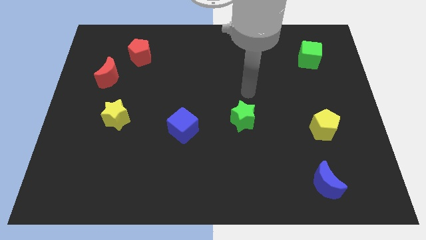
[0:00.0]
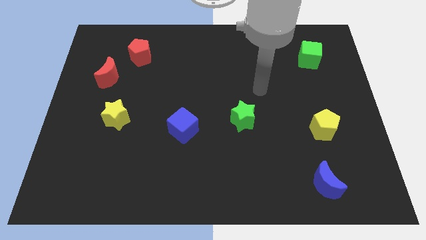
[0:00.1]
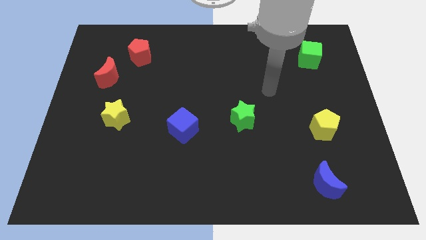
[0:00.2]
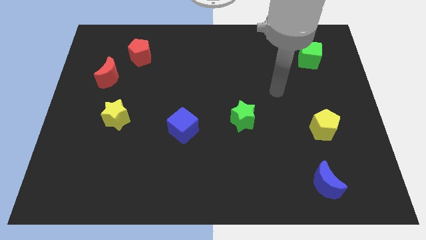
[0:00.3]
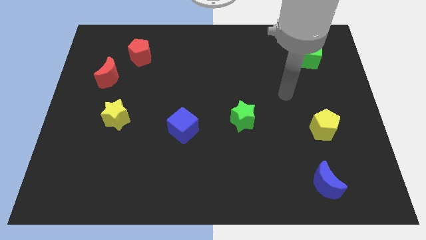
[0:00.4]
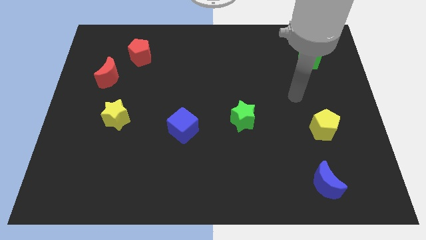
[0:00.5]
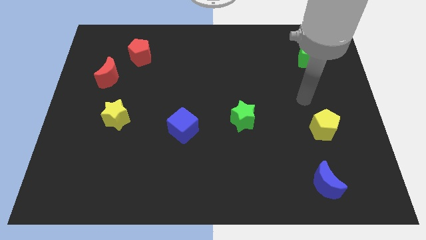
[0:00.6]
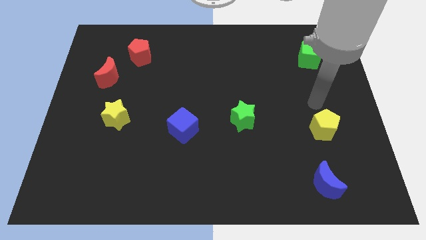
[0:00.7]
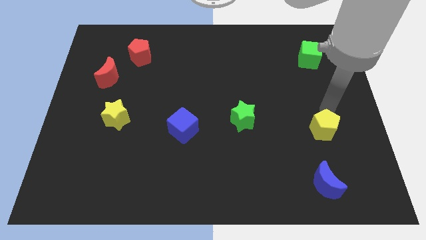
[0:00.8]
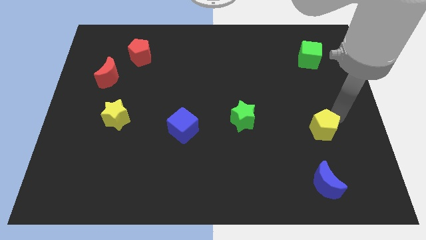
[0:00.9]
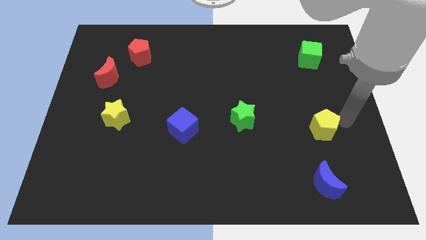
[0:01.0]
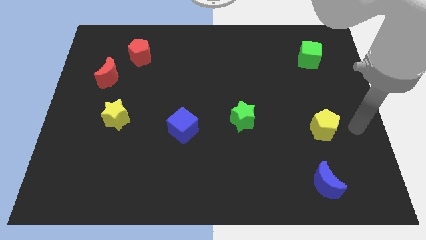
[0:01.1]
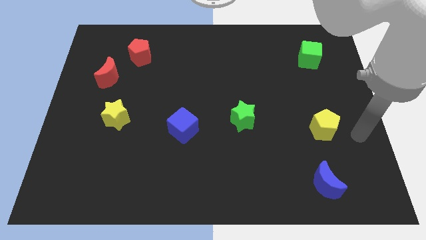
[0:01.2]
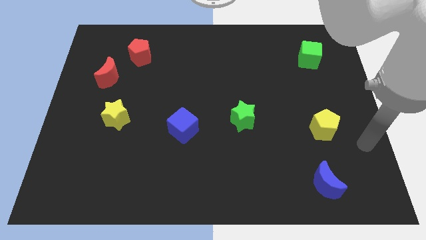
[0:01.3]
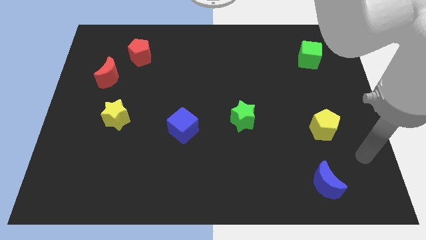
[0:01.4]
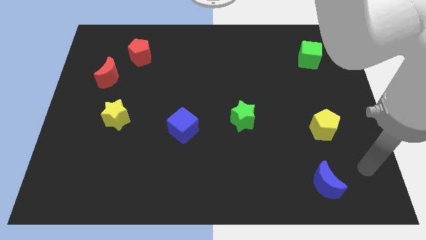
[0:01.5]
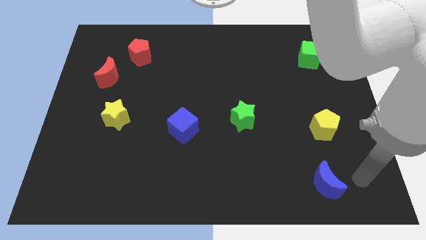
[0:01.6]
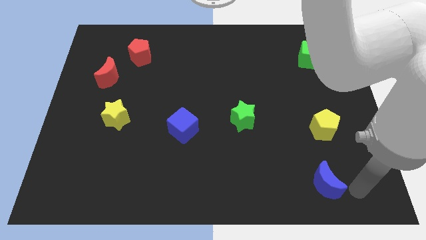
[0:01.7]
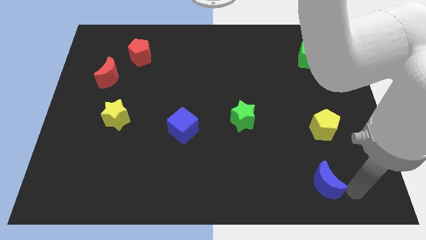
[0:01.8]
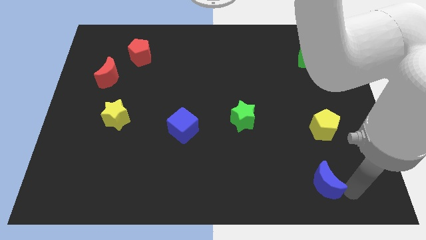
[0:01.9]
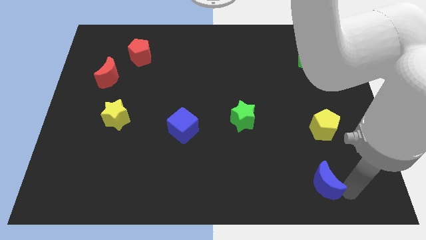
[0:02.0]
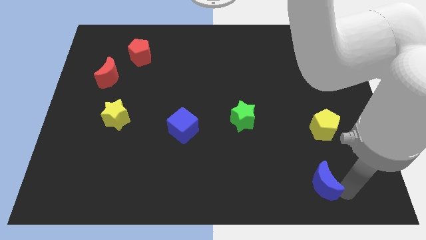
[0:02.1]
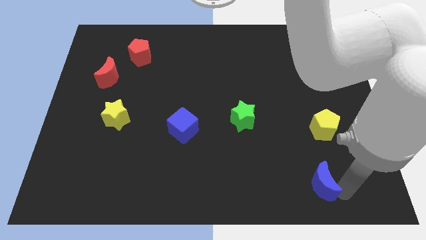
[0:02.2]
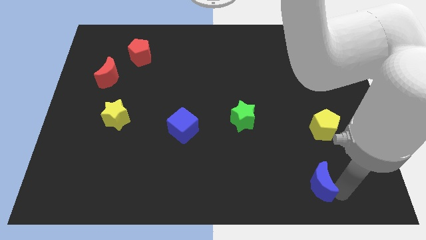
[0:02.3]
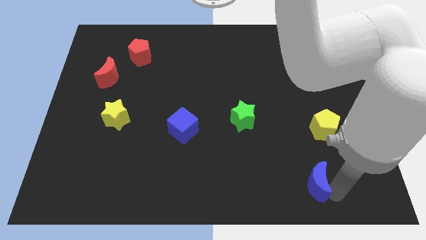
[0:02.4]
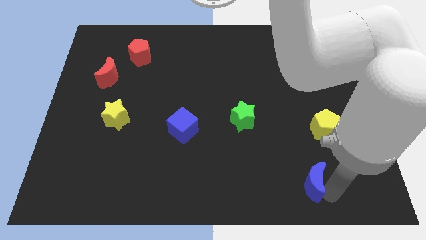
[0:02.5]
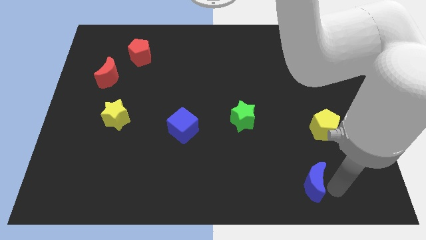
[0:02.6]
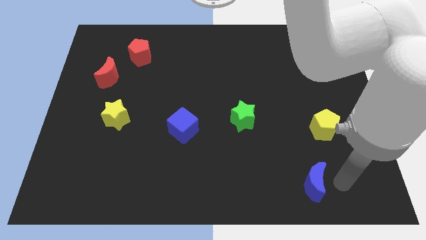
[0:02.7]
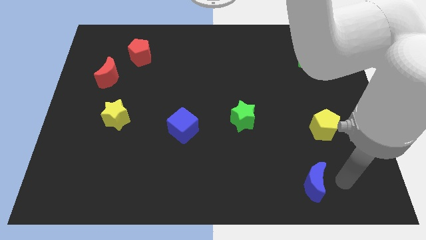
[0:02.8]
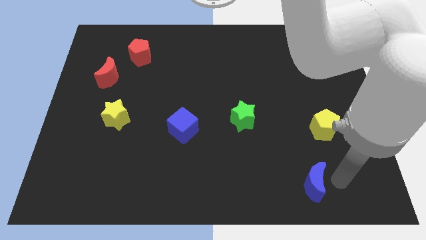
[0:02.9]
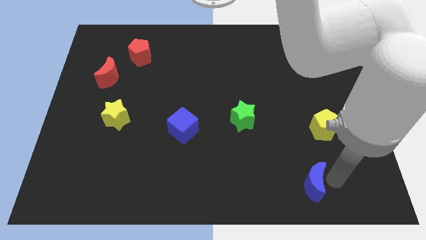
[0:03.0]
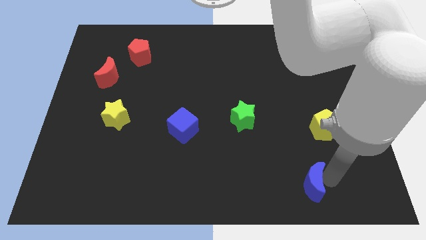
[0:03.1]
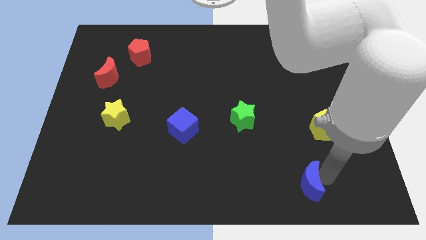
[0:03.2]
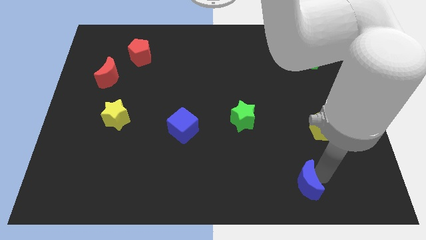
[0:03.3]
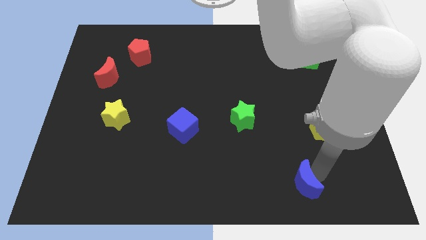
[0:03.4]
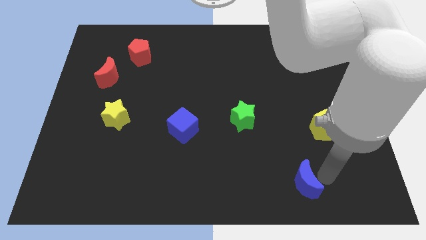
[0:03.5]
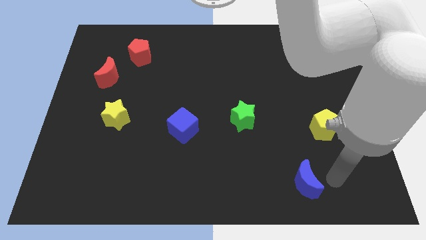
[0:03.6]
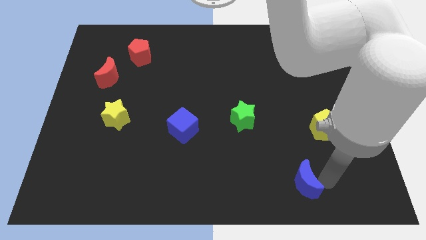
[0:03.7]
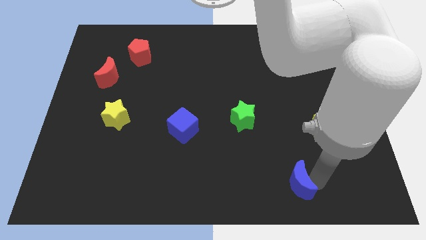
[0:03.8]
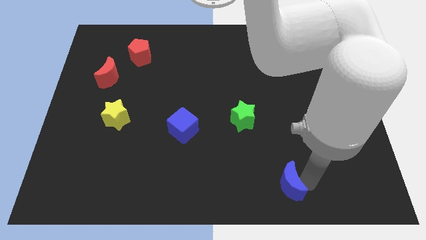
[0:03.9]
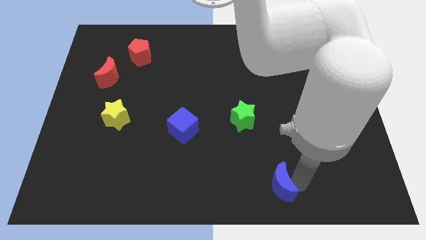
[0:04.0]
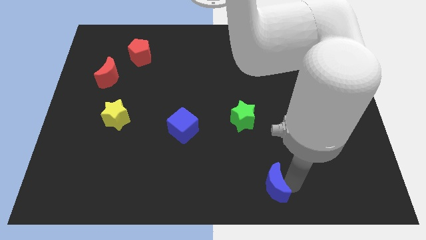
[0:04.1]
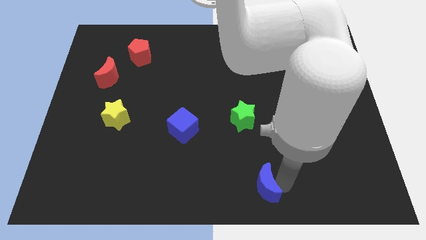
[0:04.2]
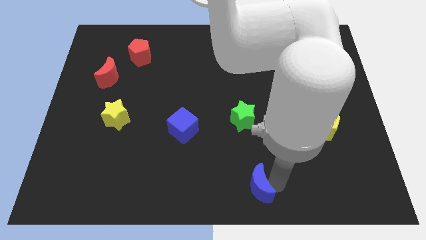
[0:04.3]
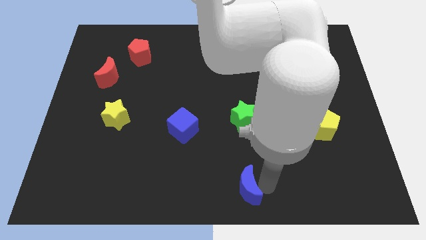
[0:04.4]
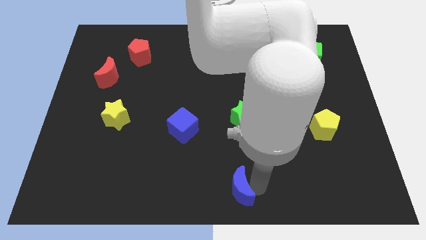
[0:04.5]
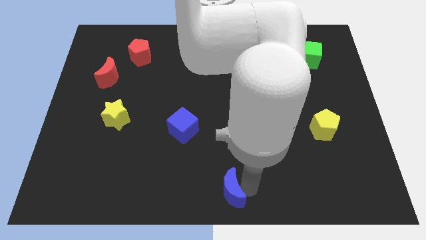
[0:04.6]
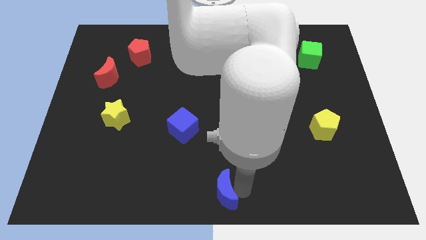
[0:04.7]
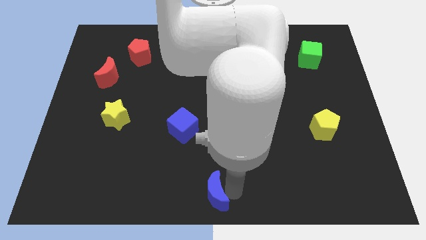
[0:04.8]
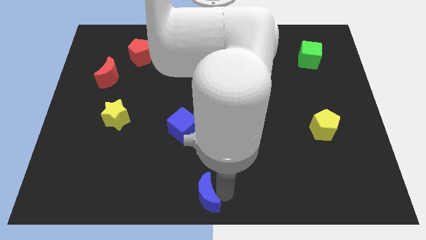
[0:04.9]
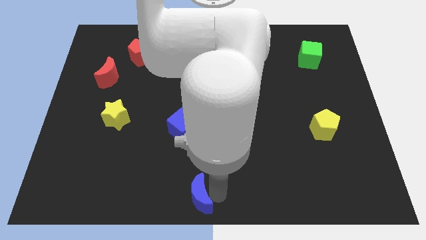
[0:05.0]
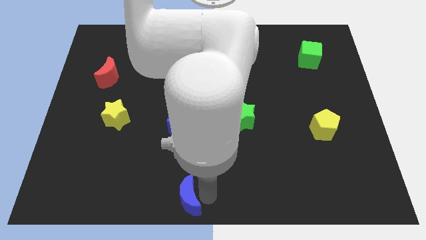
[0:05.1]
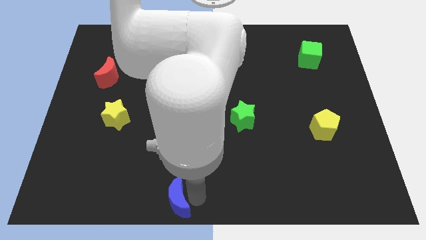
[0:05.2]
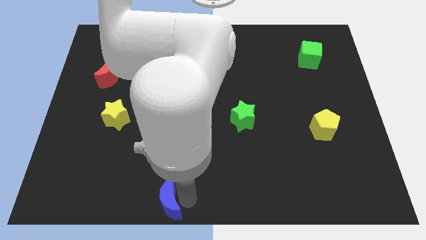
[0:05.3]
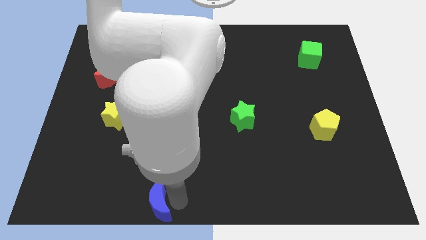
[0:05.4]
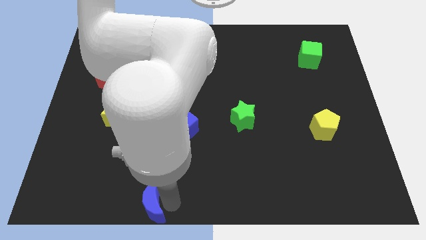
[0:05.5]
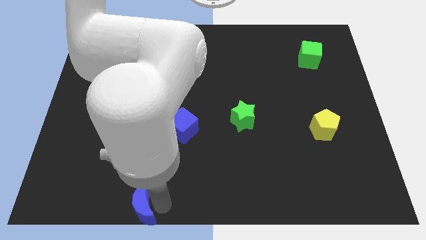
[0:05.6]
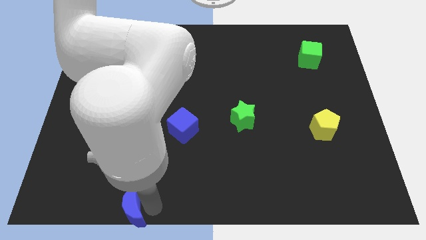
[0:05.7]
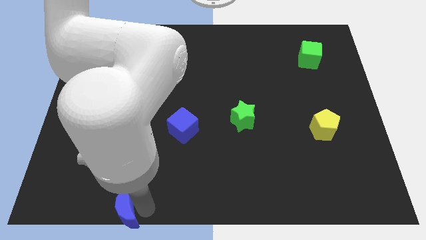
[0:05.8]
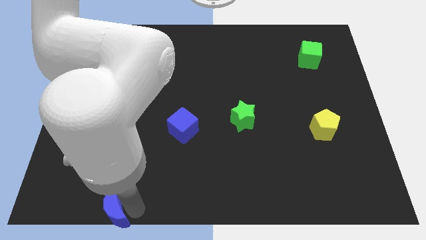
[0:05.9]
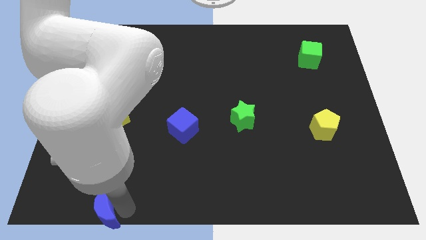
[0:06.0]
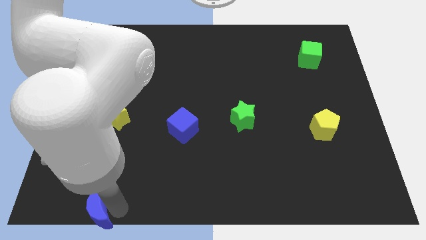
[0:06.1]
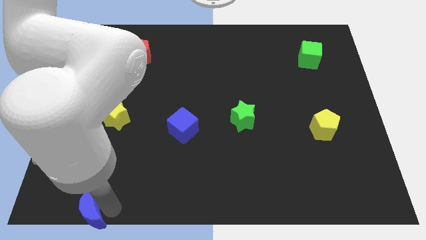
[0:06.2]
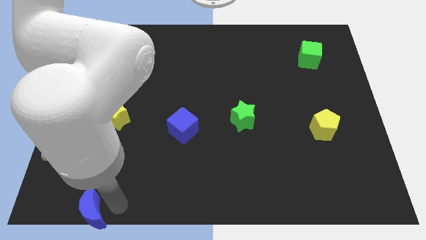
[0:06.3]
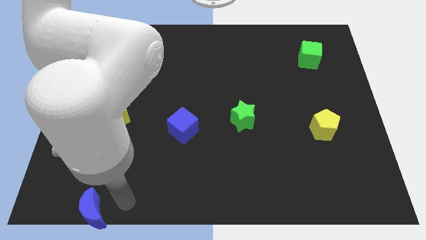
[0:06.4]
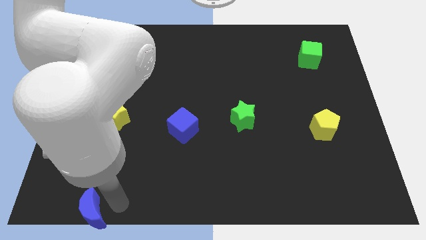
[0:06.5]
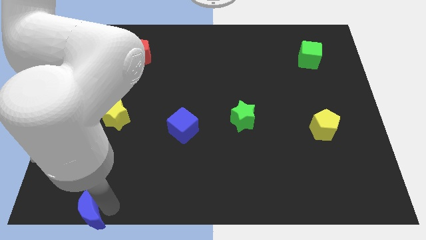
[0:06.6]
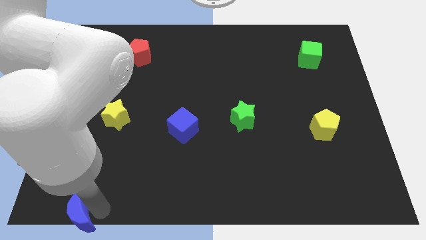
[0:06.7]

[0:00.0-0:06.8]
push the blue moon to the bottom left of the board
